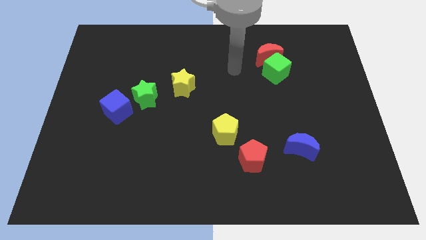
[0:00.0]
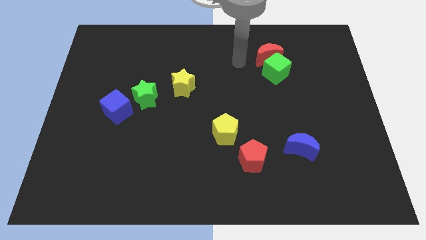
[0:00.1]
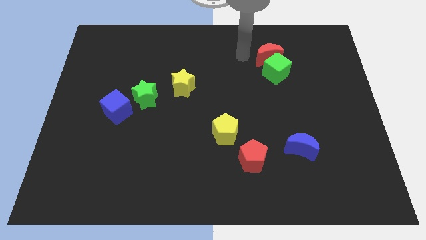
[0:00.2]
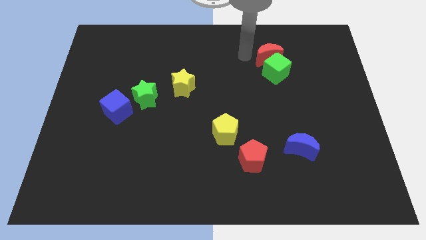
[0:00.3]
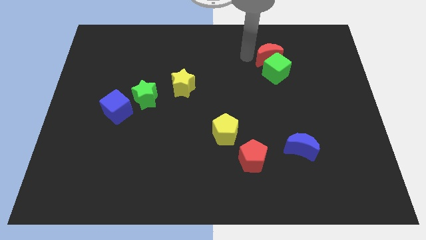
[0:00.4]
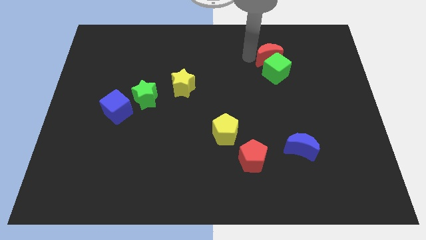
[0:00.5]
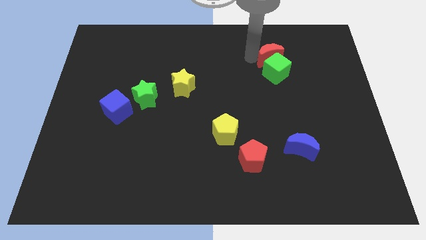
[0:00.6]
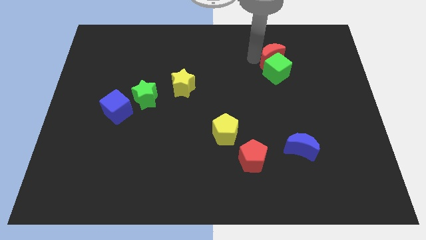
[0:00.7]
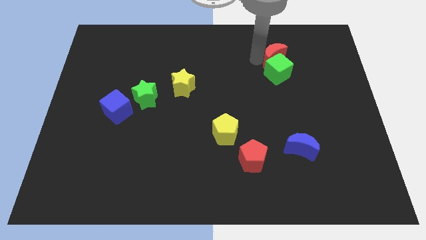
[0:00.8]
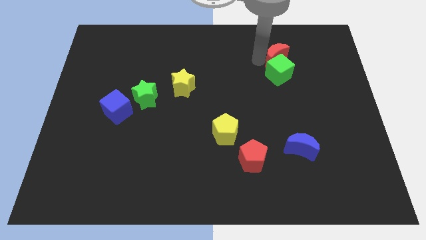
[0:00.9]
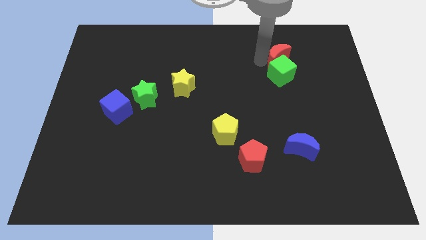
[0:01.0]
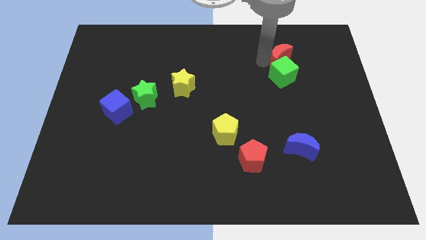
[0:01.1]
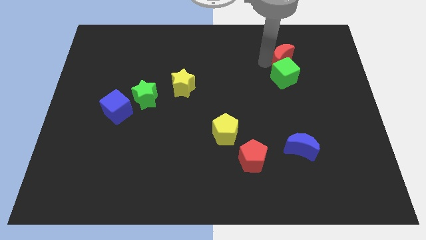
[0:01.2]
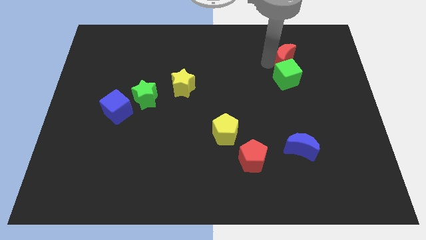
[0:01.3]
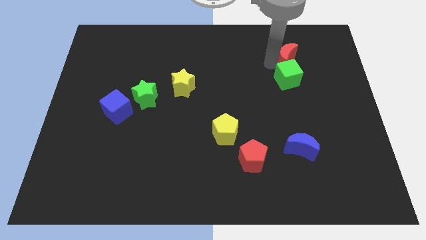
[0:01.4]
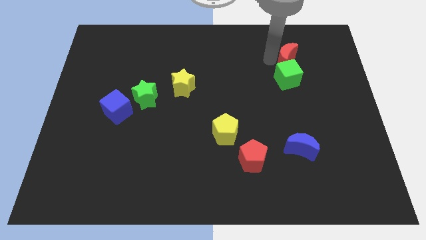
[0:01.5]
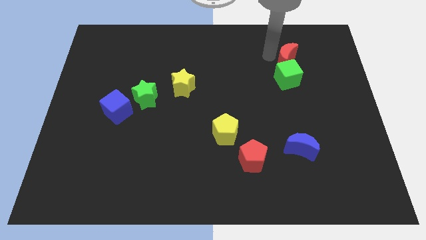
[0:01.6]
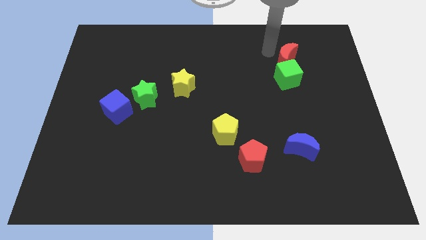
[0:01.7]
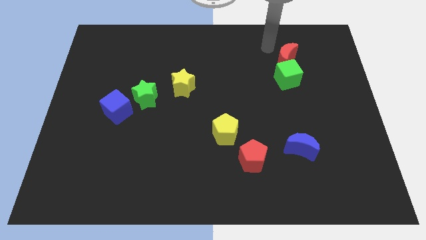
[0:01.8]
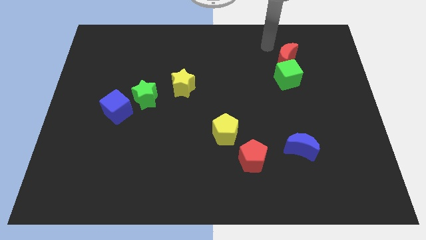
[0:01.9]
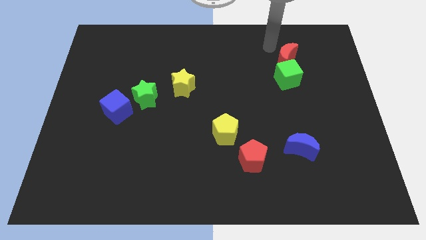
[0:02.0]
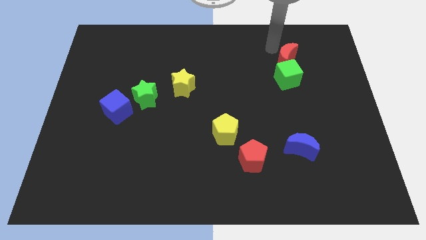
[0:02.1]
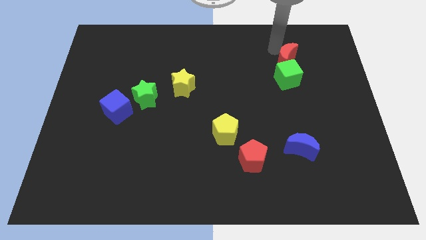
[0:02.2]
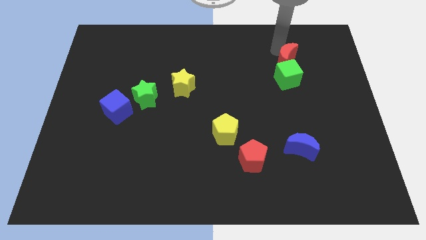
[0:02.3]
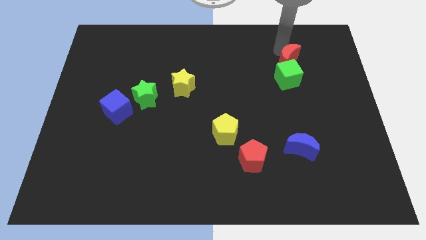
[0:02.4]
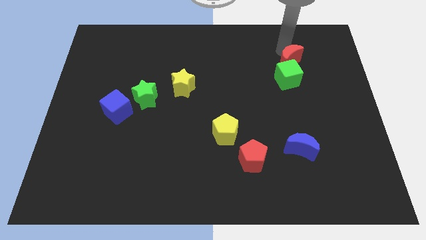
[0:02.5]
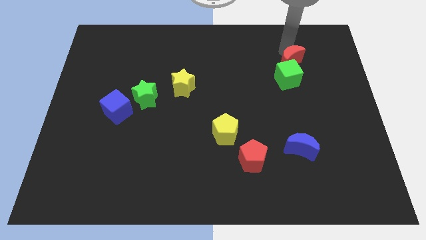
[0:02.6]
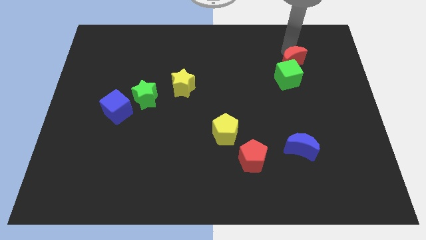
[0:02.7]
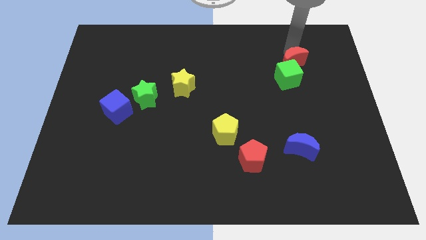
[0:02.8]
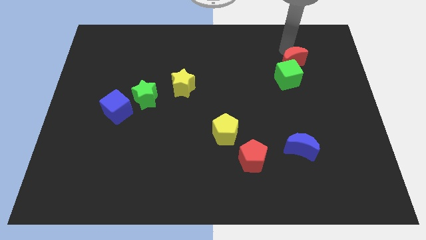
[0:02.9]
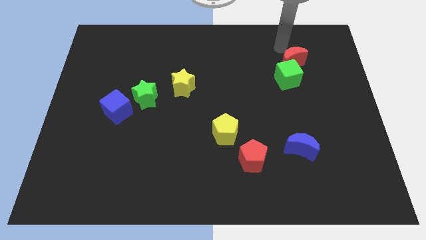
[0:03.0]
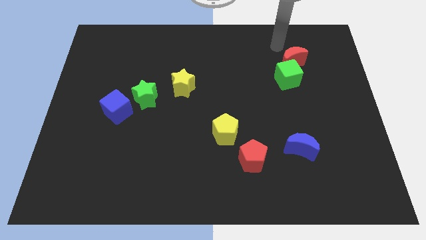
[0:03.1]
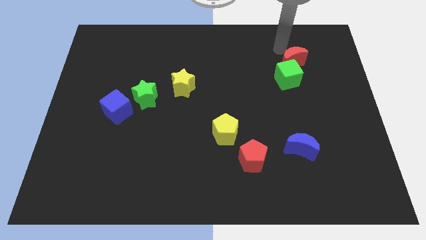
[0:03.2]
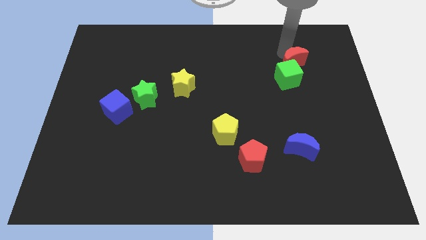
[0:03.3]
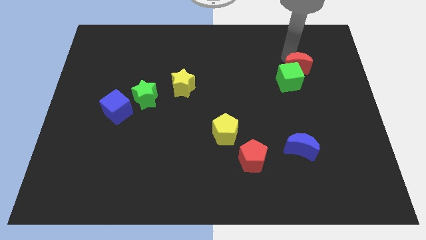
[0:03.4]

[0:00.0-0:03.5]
slide the red moon a little bit down and to the right

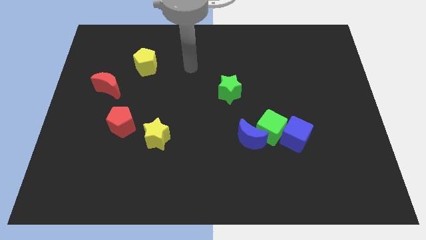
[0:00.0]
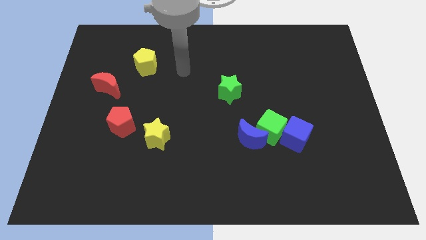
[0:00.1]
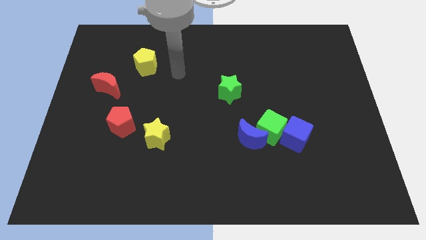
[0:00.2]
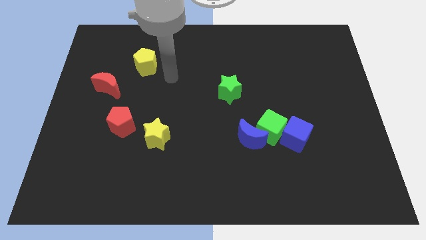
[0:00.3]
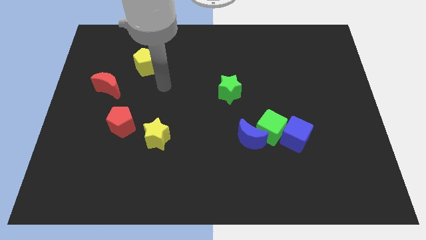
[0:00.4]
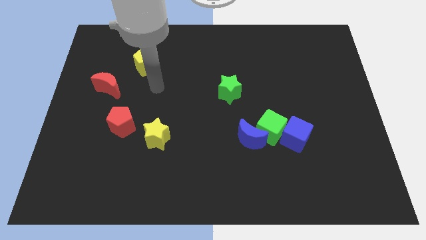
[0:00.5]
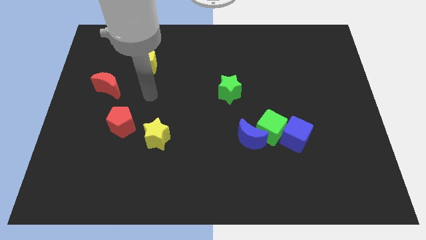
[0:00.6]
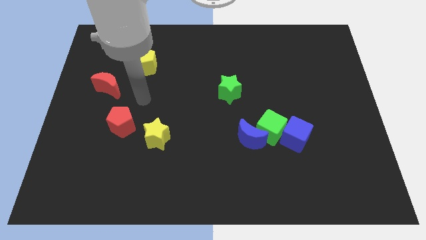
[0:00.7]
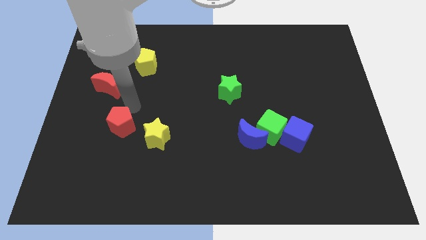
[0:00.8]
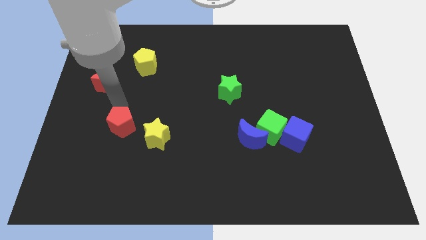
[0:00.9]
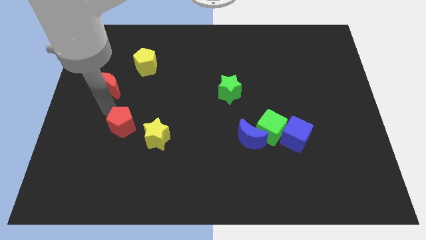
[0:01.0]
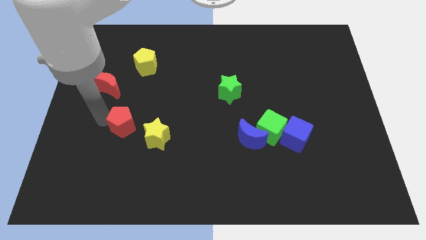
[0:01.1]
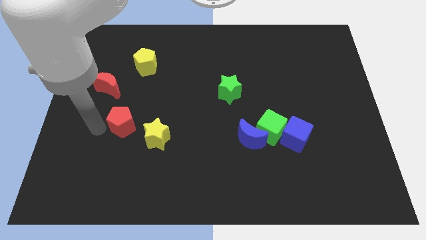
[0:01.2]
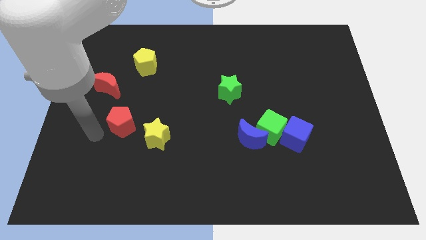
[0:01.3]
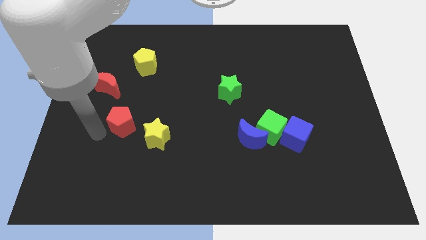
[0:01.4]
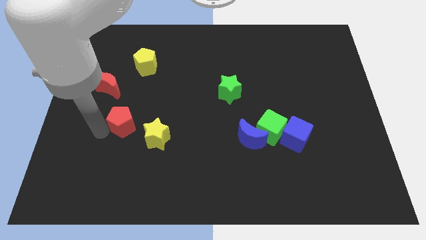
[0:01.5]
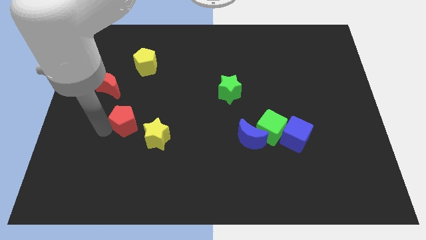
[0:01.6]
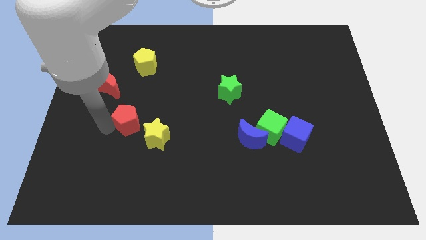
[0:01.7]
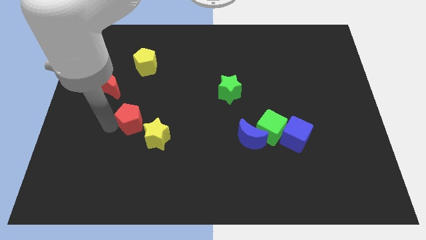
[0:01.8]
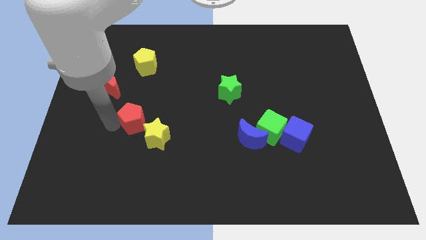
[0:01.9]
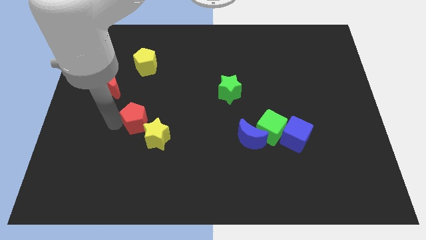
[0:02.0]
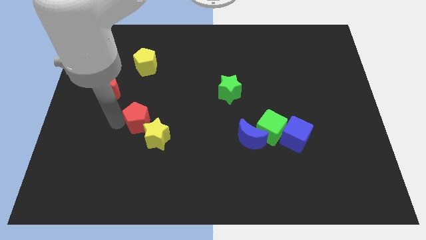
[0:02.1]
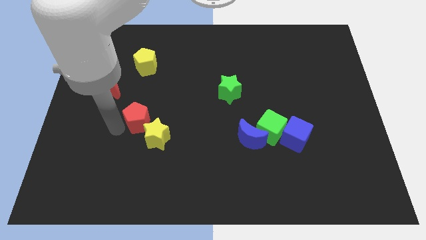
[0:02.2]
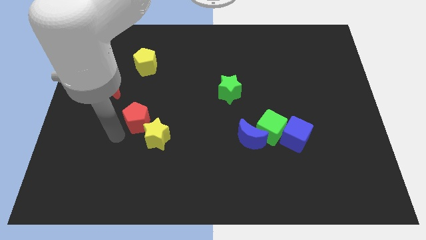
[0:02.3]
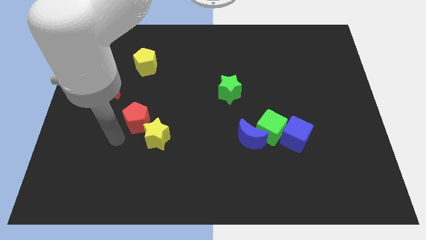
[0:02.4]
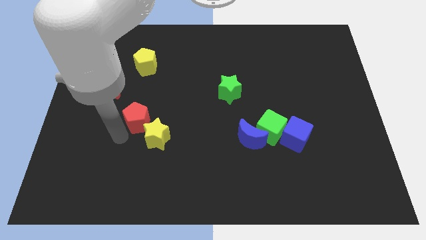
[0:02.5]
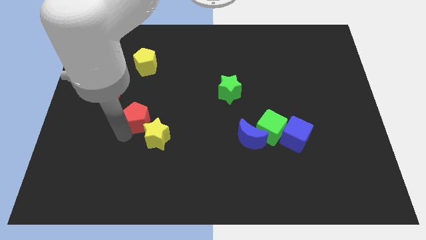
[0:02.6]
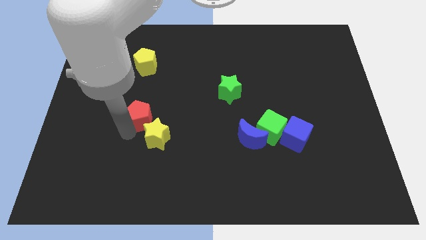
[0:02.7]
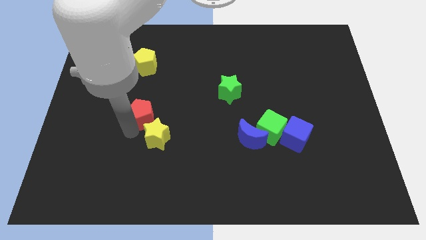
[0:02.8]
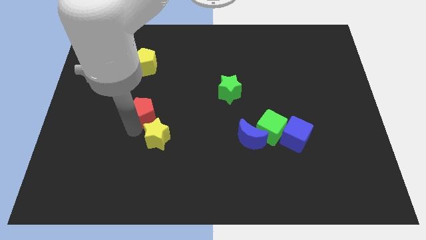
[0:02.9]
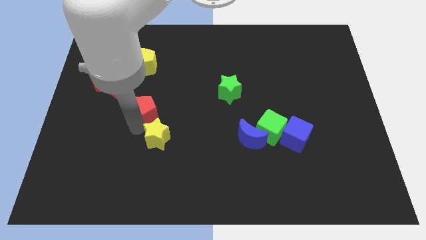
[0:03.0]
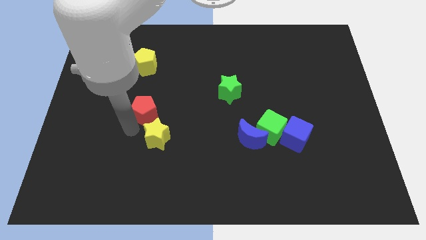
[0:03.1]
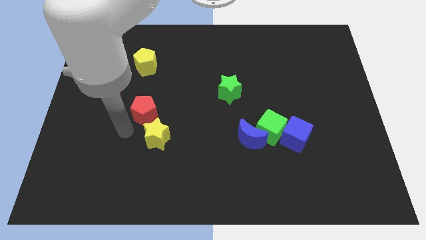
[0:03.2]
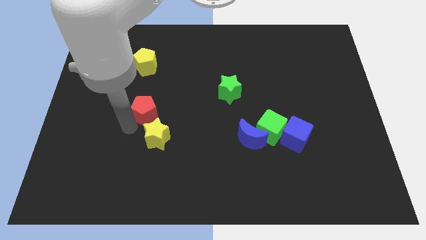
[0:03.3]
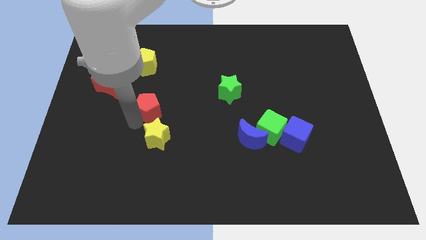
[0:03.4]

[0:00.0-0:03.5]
slightly slide the red pentagon diagonally up and right

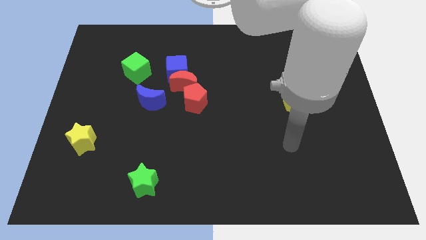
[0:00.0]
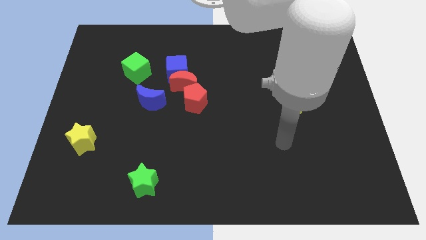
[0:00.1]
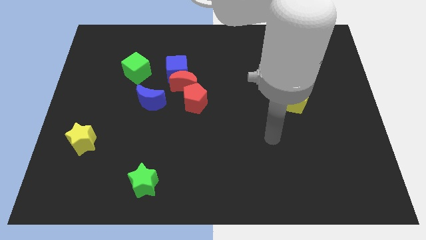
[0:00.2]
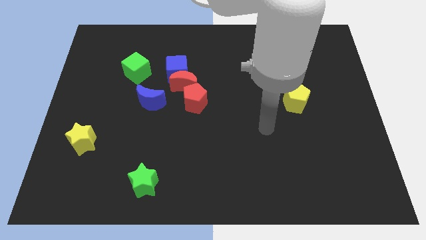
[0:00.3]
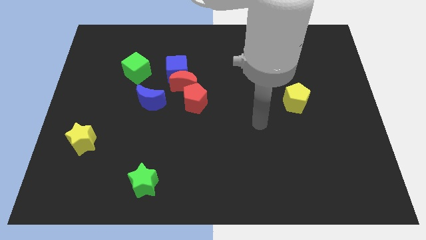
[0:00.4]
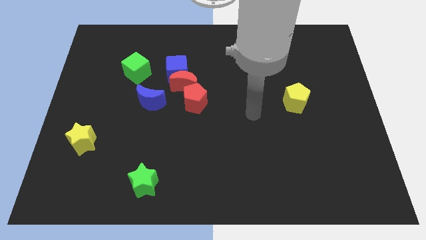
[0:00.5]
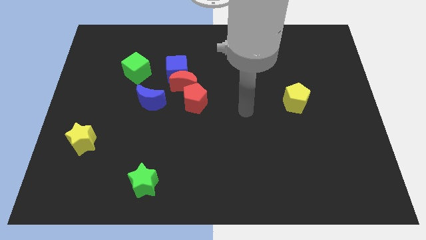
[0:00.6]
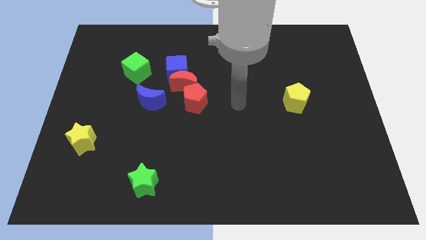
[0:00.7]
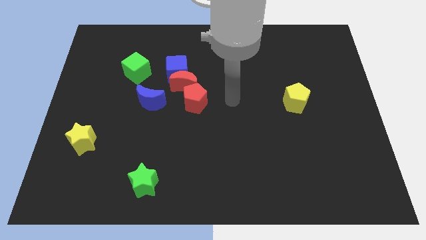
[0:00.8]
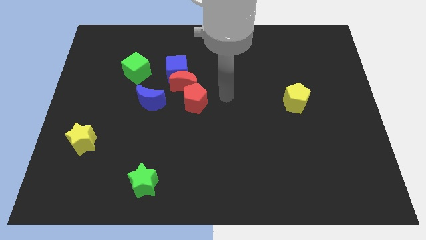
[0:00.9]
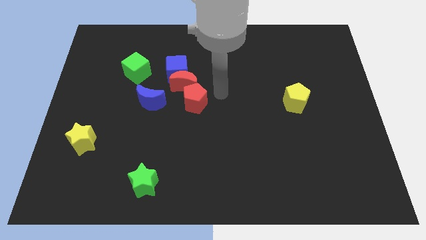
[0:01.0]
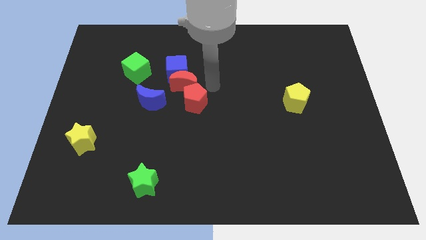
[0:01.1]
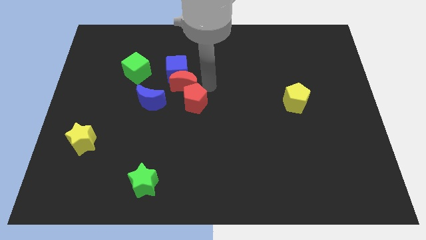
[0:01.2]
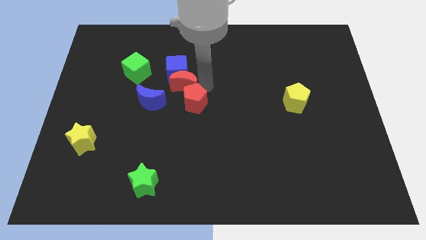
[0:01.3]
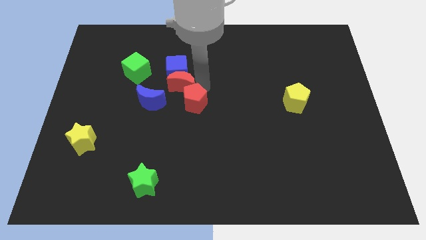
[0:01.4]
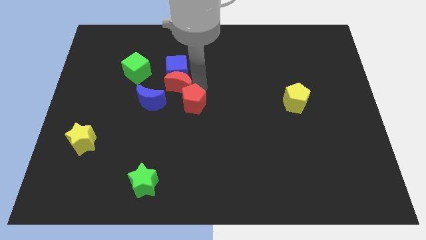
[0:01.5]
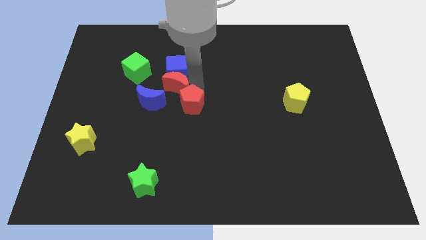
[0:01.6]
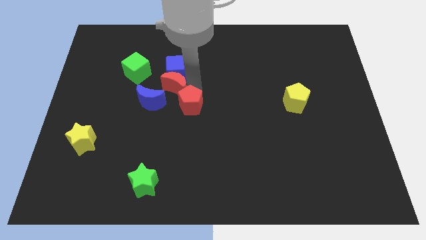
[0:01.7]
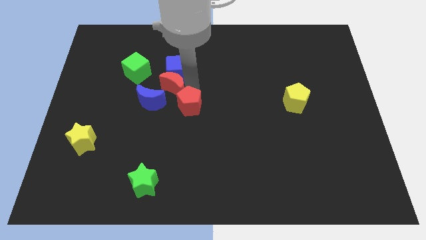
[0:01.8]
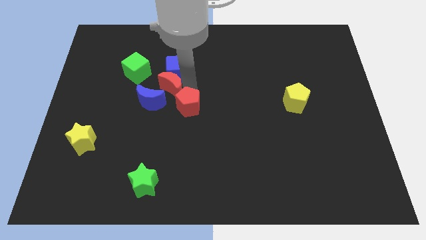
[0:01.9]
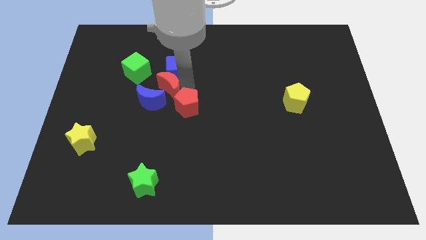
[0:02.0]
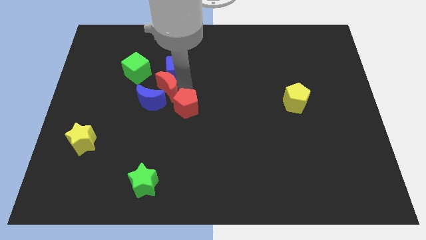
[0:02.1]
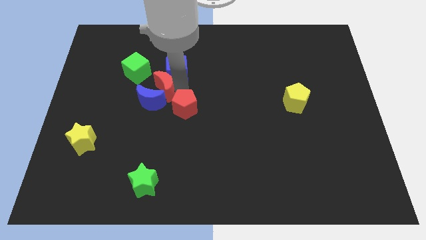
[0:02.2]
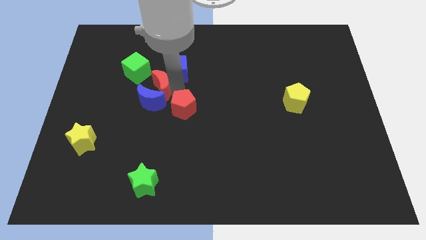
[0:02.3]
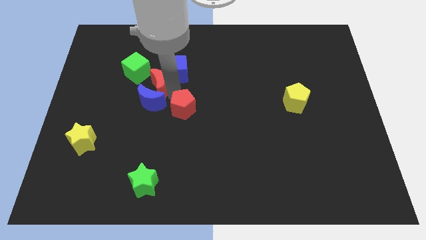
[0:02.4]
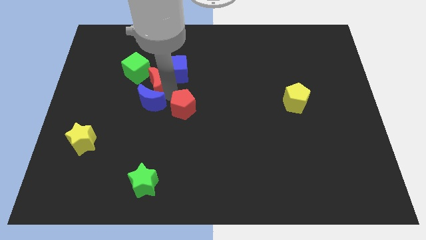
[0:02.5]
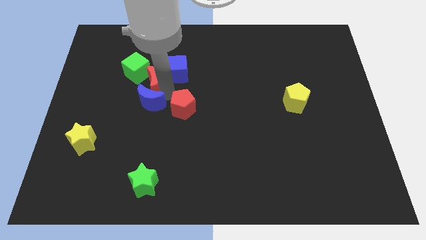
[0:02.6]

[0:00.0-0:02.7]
slightly slide the red moon to the left
